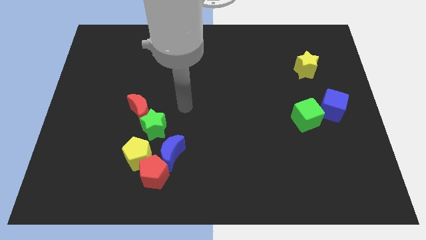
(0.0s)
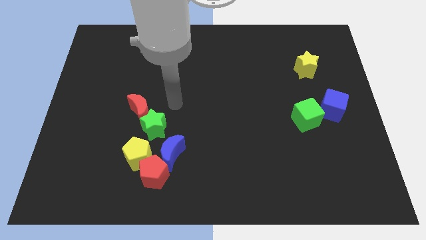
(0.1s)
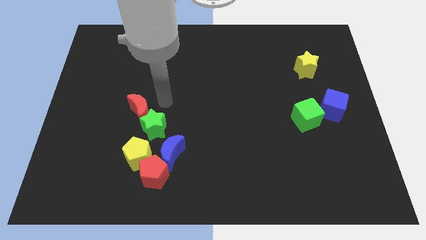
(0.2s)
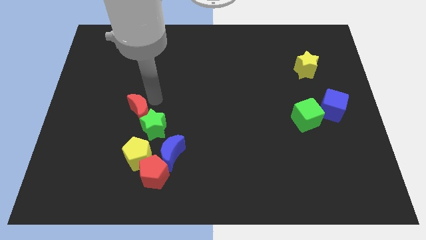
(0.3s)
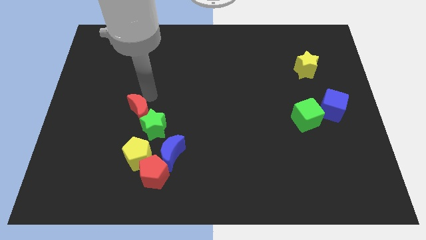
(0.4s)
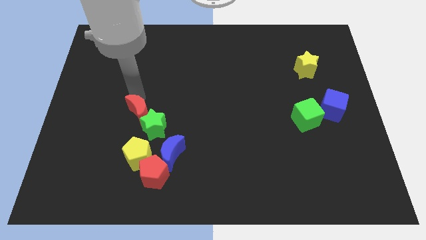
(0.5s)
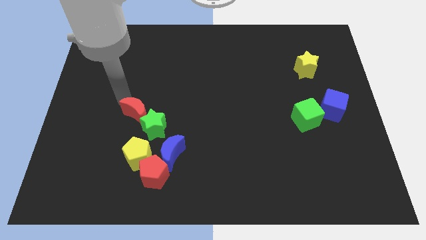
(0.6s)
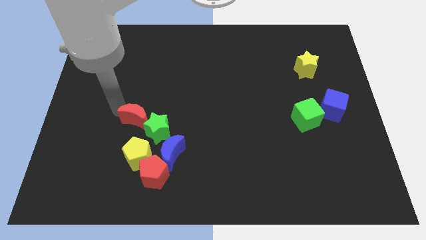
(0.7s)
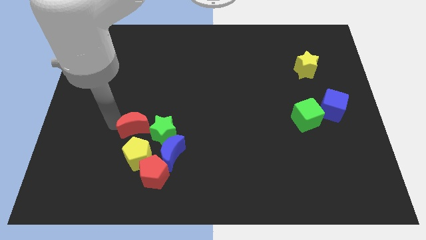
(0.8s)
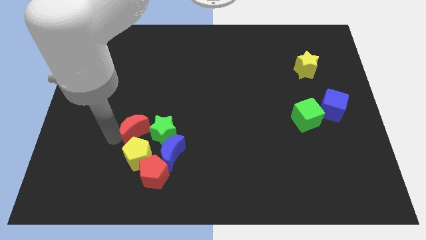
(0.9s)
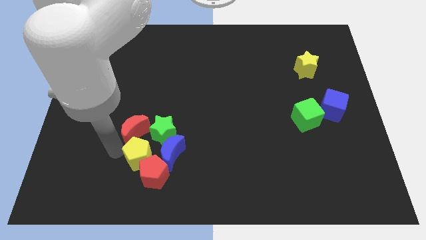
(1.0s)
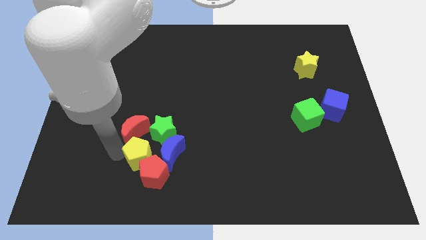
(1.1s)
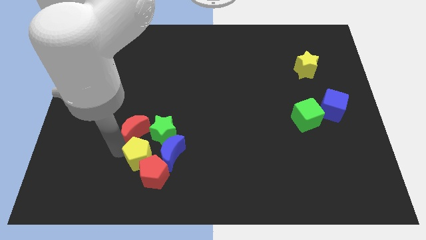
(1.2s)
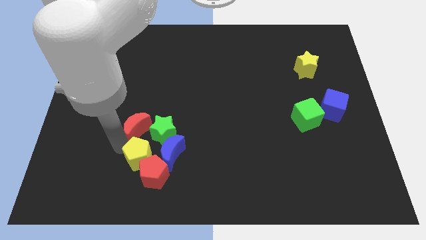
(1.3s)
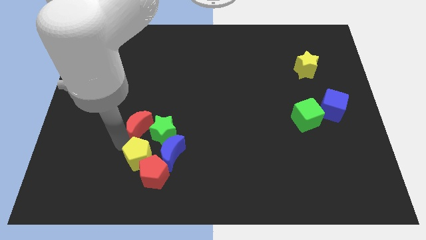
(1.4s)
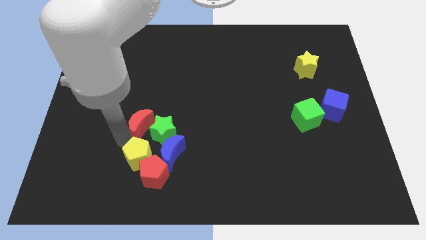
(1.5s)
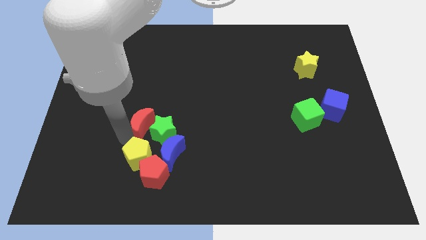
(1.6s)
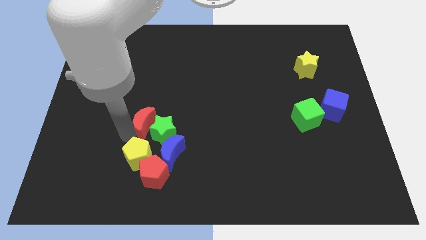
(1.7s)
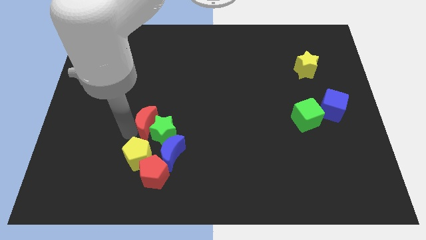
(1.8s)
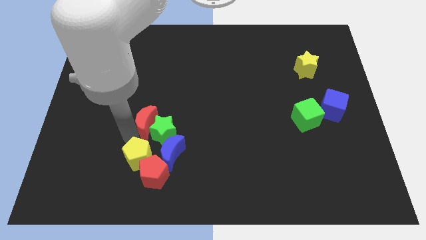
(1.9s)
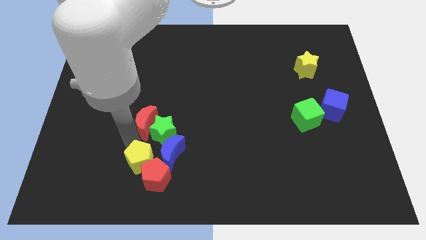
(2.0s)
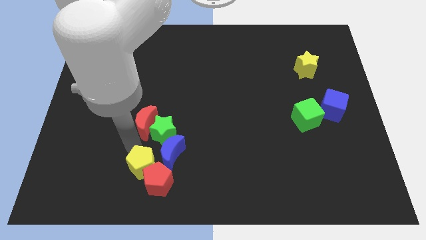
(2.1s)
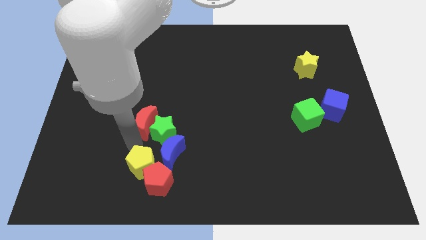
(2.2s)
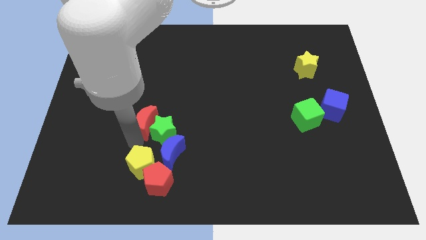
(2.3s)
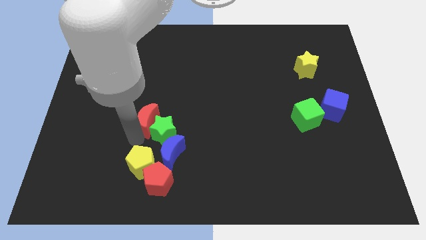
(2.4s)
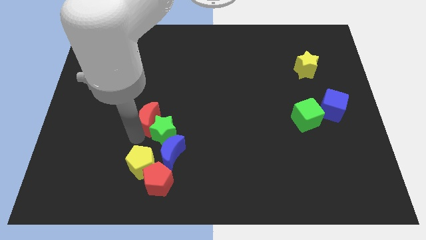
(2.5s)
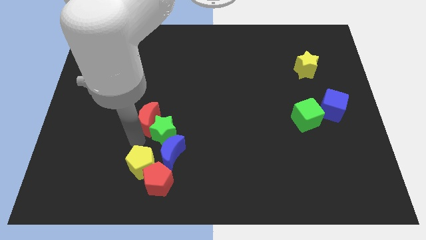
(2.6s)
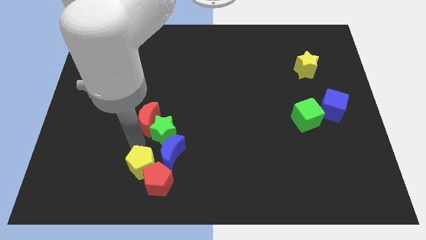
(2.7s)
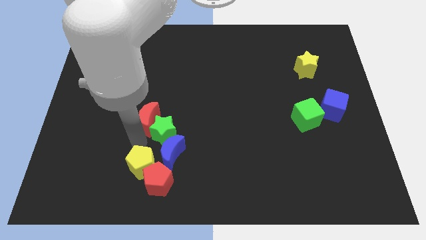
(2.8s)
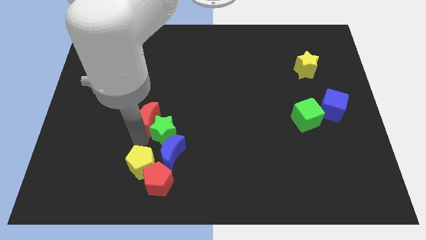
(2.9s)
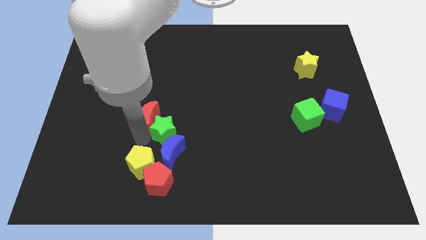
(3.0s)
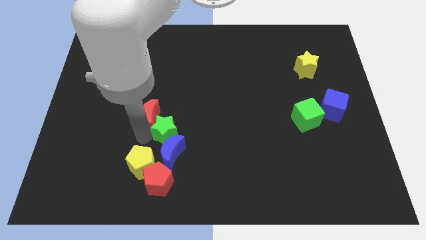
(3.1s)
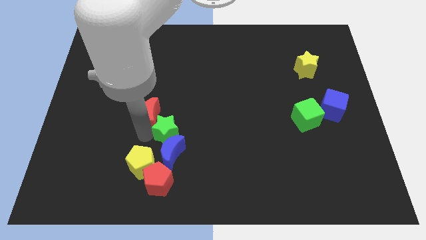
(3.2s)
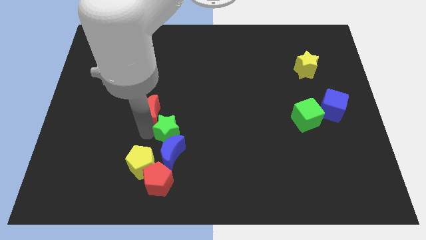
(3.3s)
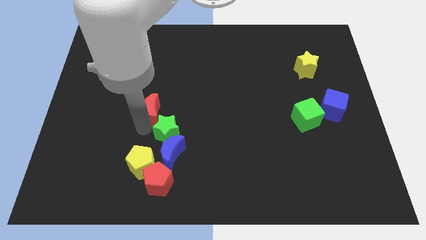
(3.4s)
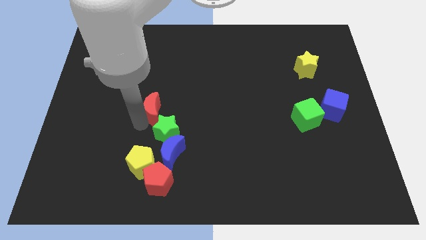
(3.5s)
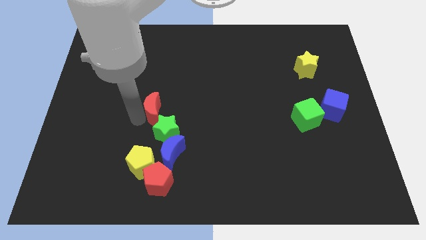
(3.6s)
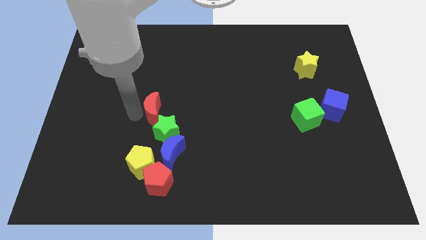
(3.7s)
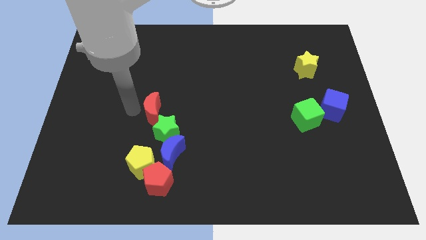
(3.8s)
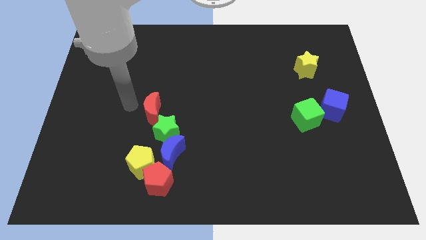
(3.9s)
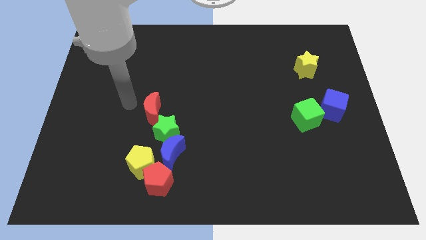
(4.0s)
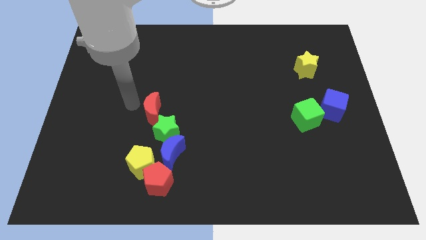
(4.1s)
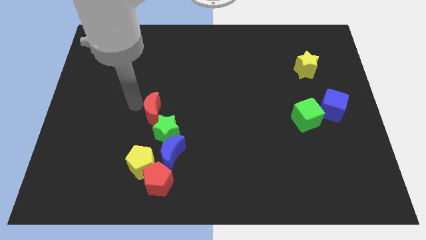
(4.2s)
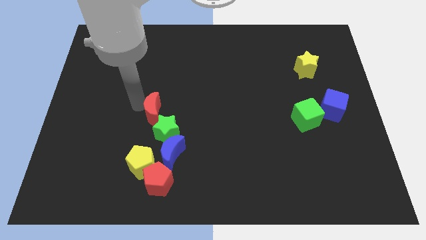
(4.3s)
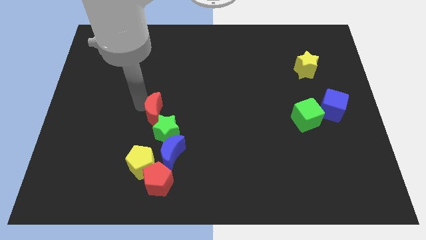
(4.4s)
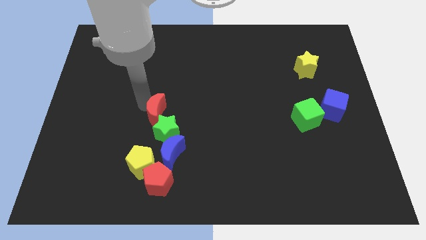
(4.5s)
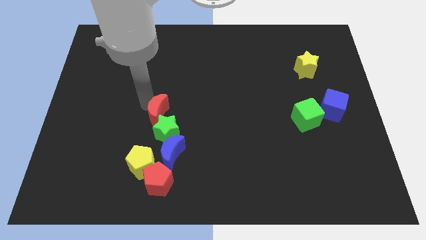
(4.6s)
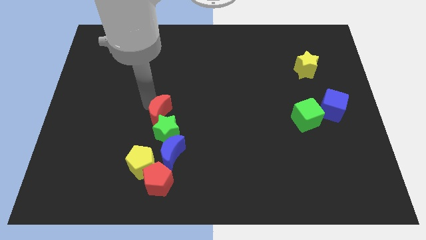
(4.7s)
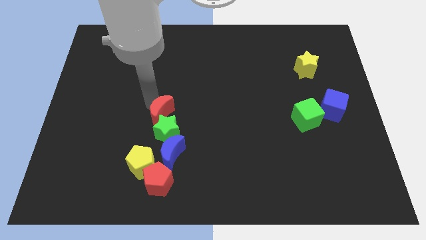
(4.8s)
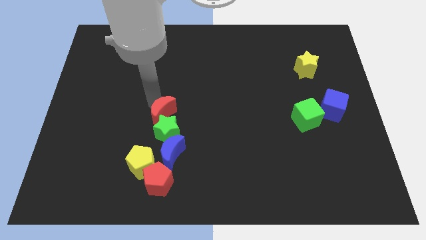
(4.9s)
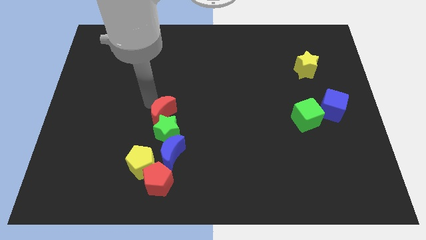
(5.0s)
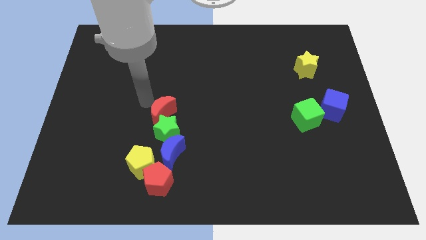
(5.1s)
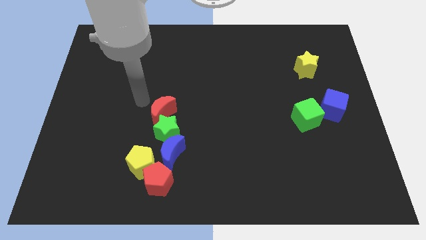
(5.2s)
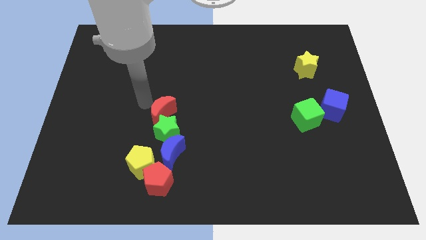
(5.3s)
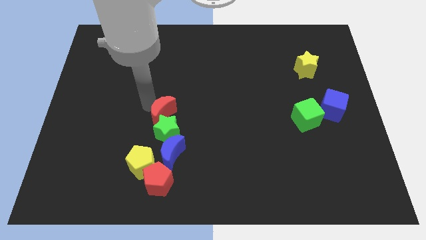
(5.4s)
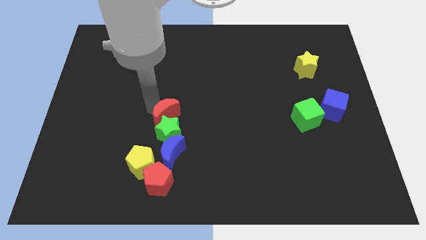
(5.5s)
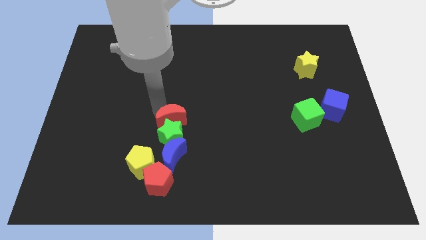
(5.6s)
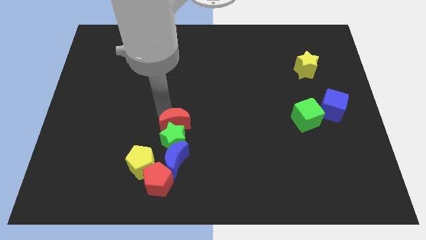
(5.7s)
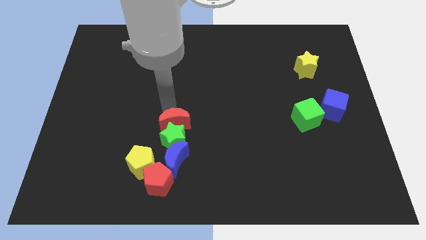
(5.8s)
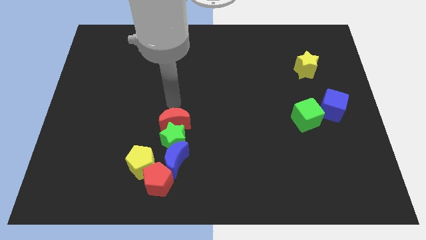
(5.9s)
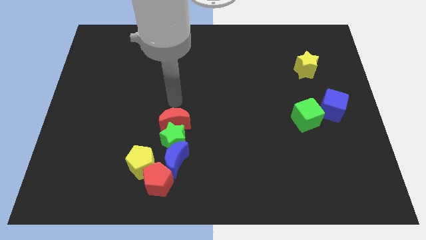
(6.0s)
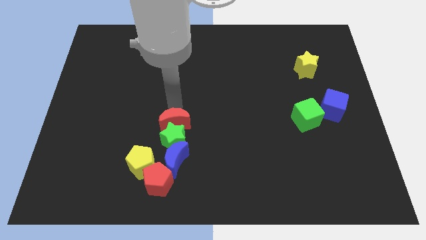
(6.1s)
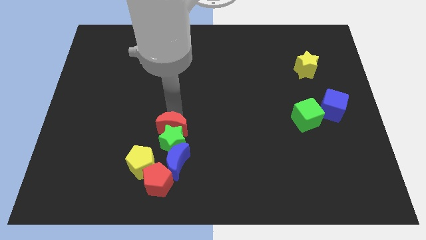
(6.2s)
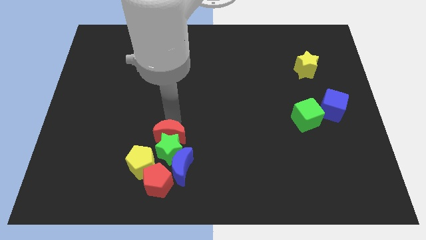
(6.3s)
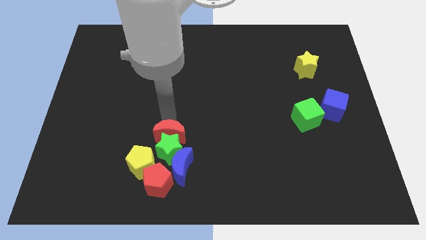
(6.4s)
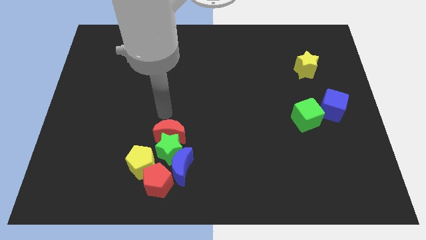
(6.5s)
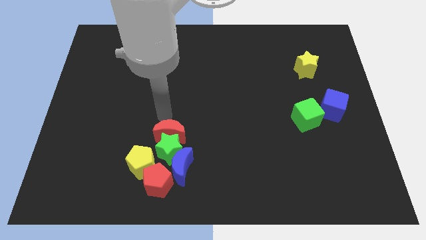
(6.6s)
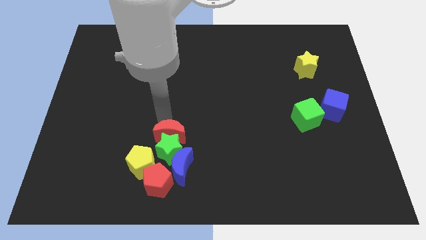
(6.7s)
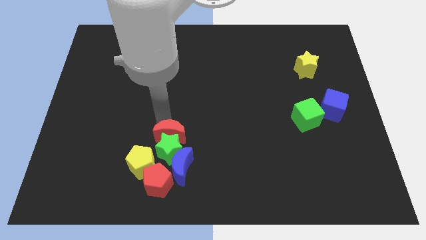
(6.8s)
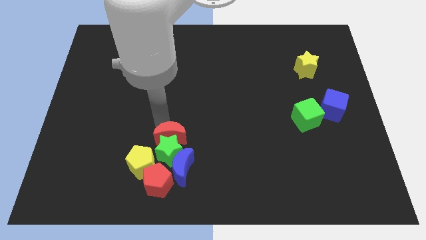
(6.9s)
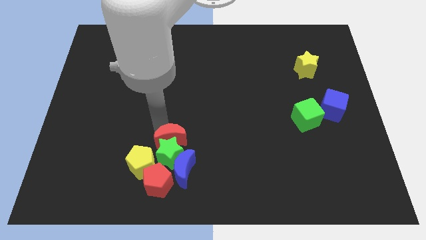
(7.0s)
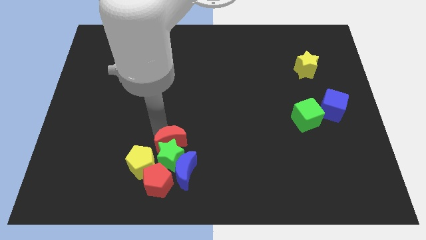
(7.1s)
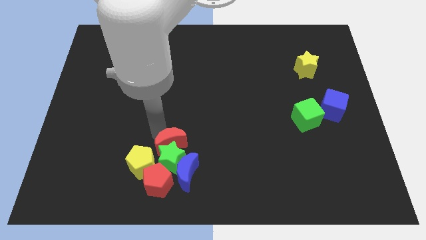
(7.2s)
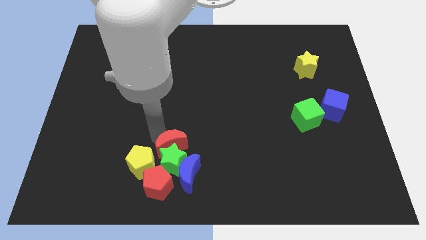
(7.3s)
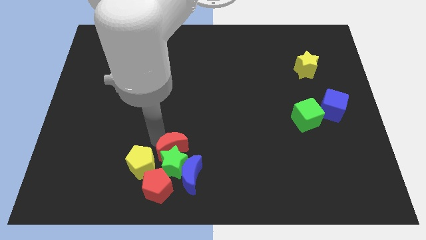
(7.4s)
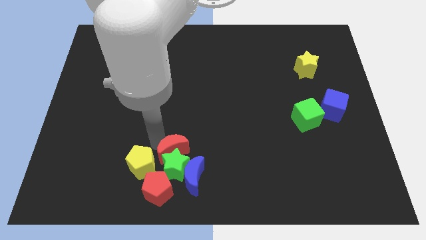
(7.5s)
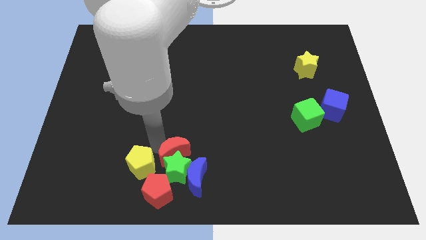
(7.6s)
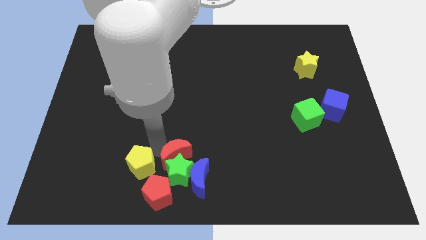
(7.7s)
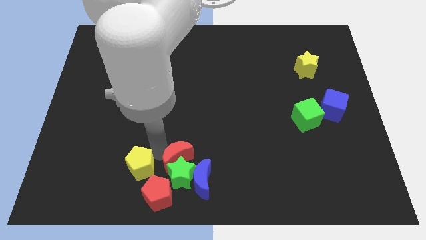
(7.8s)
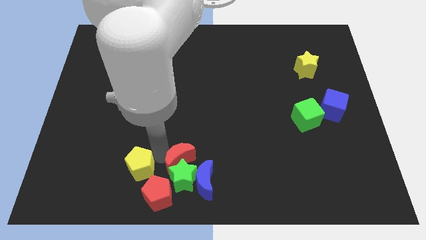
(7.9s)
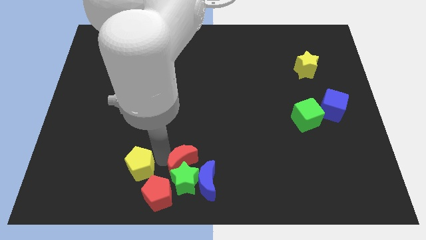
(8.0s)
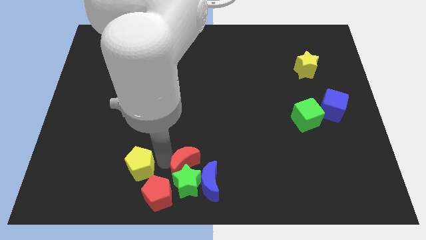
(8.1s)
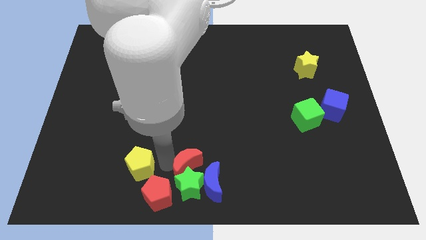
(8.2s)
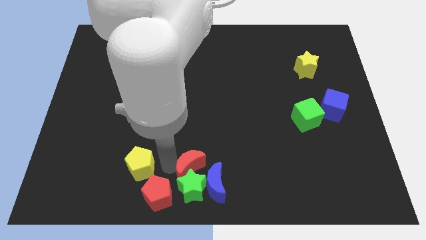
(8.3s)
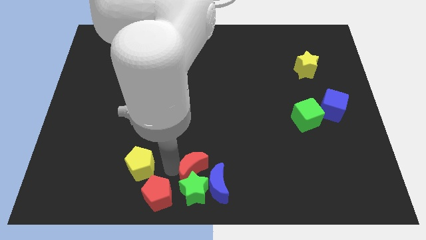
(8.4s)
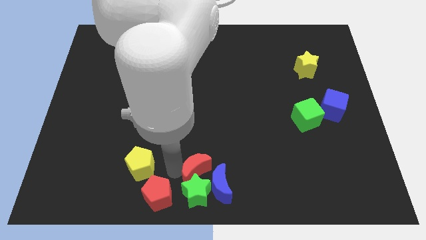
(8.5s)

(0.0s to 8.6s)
put the red moon towards the blue moon
